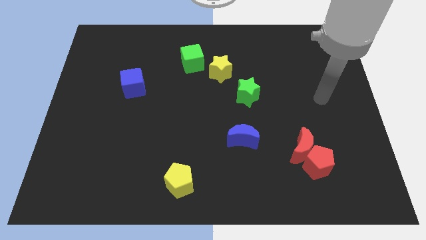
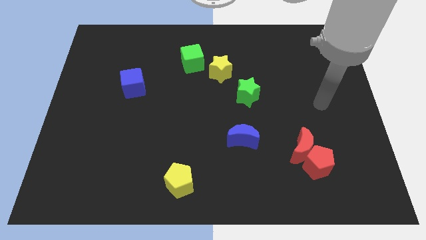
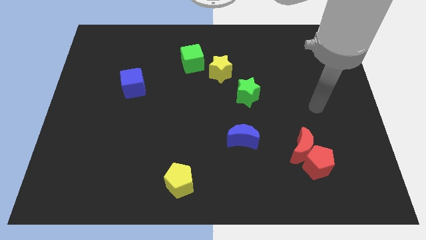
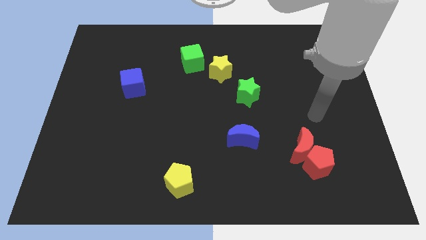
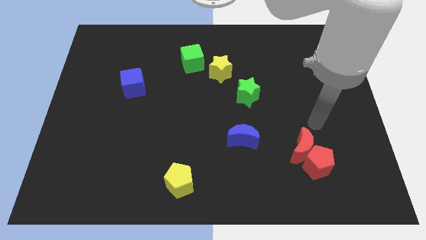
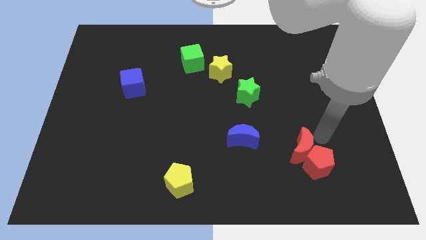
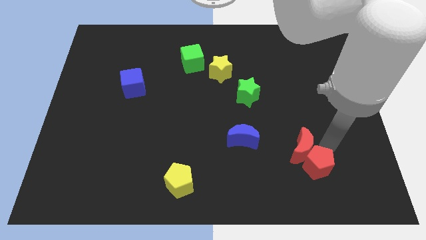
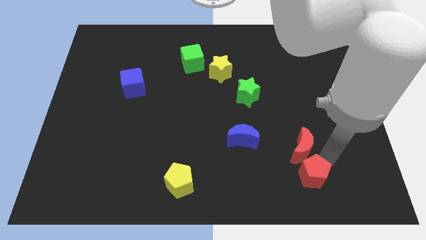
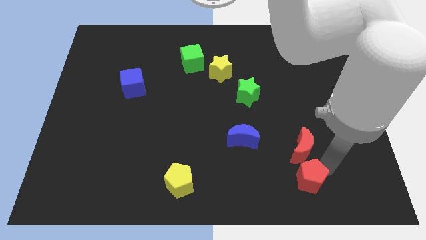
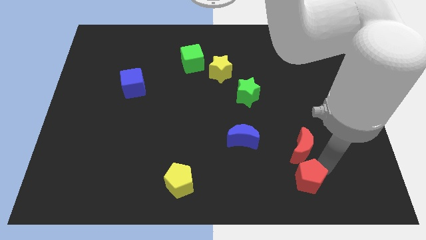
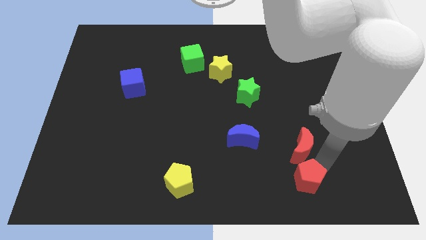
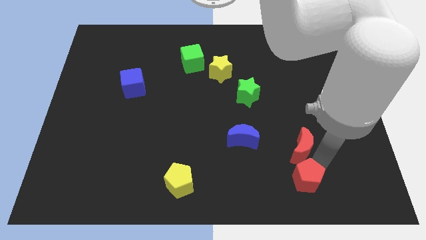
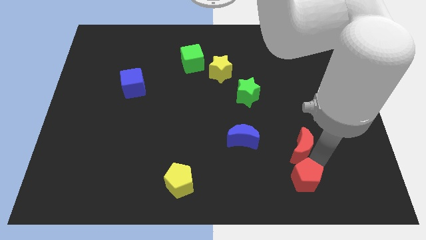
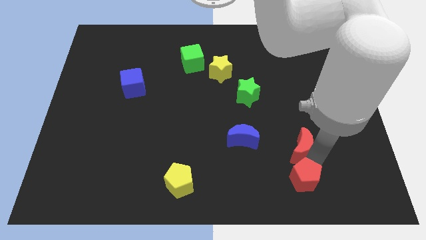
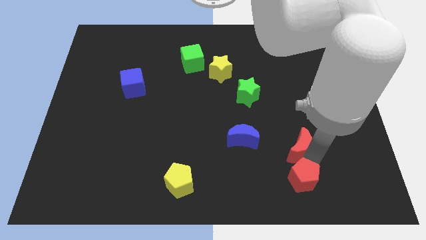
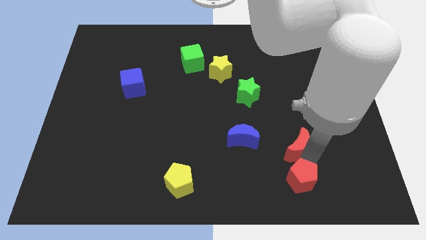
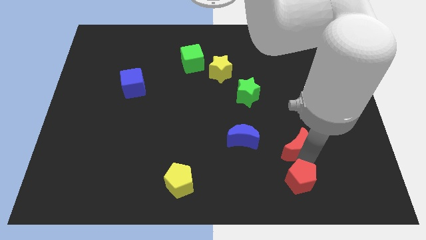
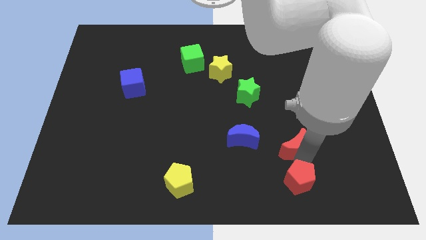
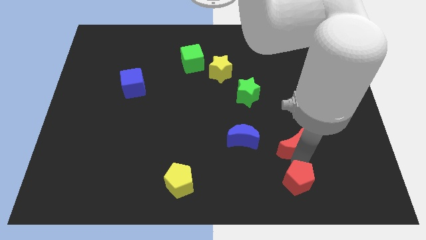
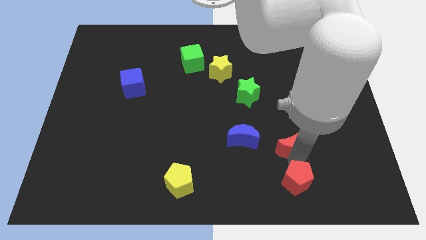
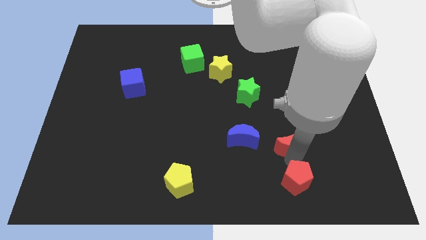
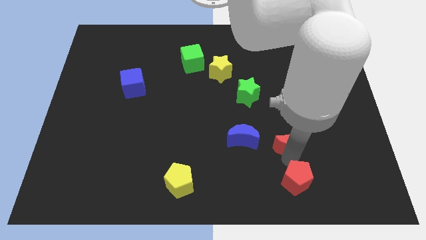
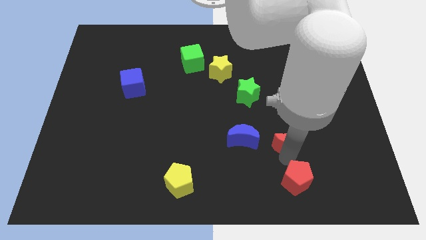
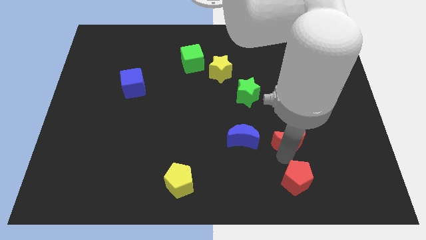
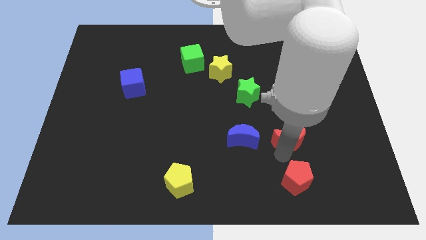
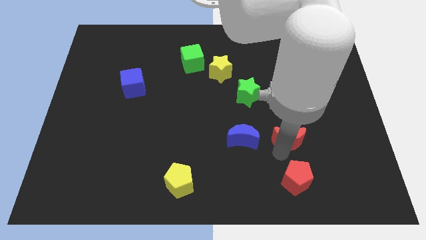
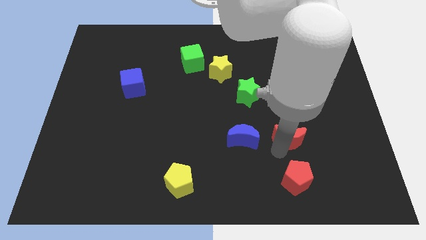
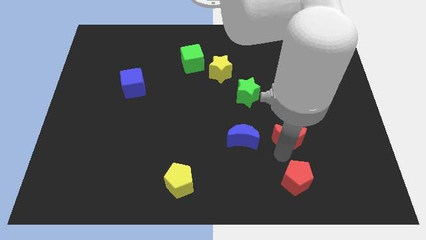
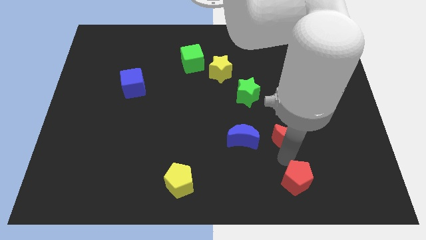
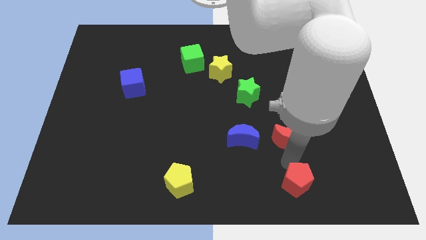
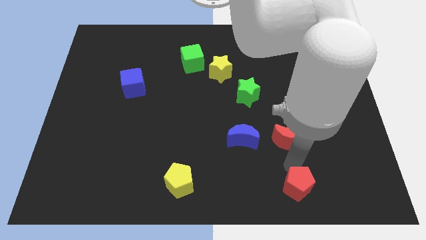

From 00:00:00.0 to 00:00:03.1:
separate the red moon from the red pentagon

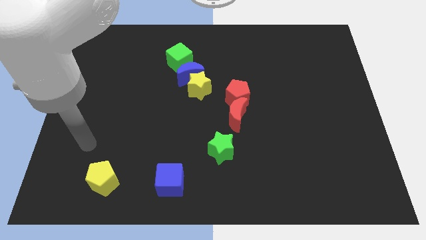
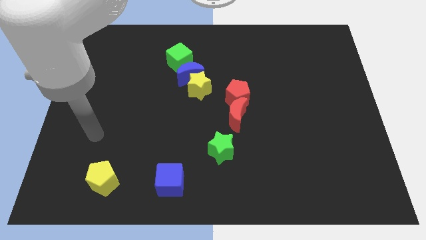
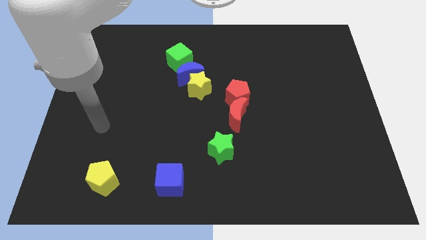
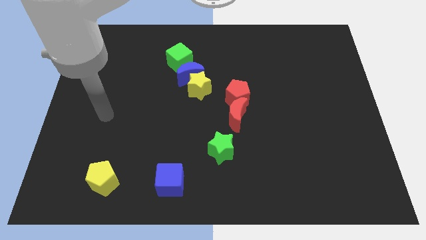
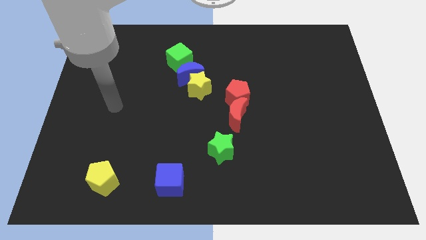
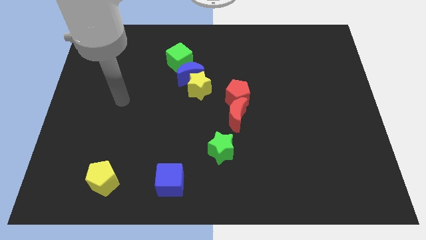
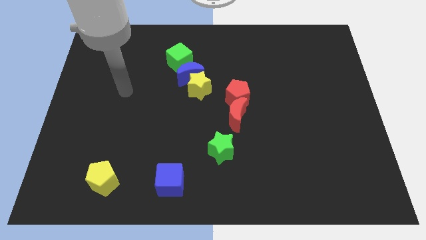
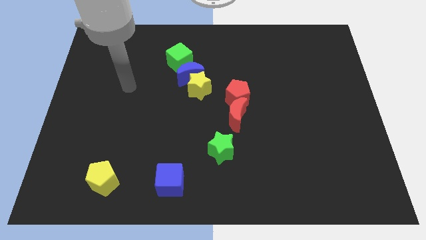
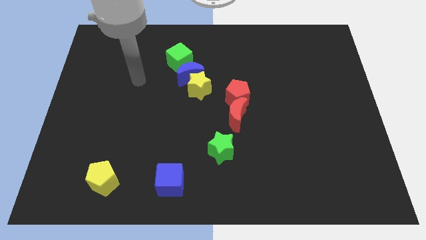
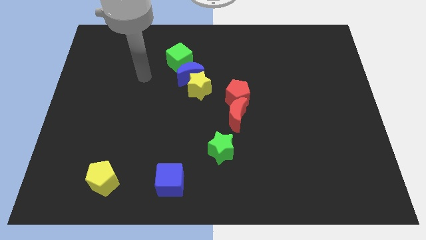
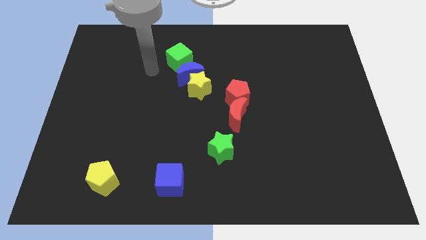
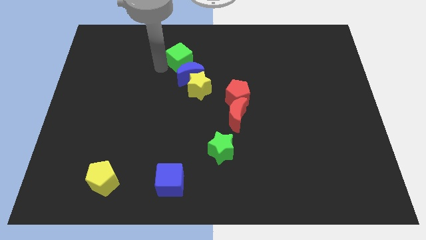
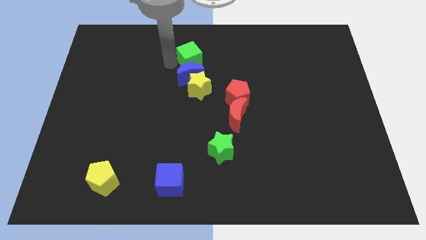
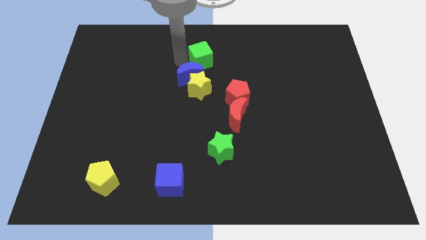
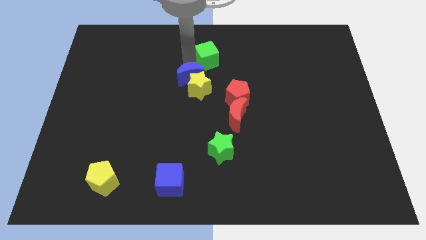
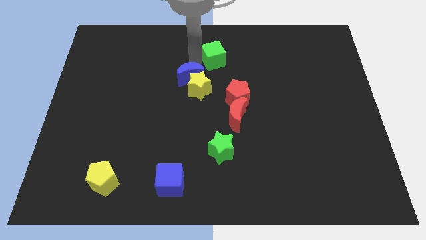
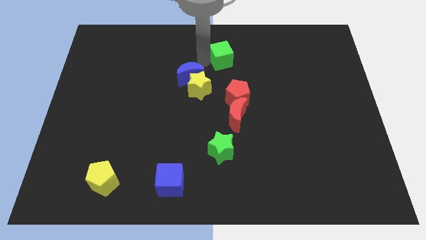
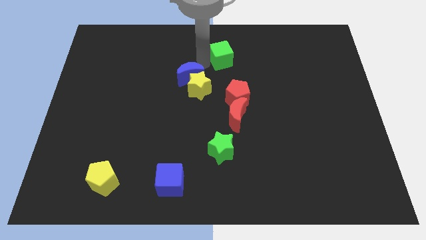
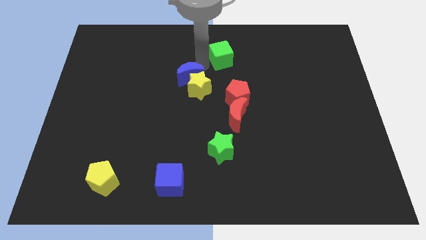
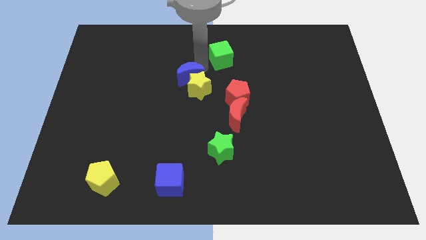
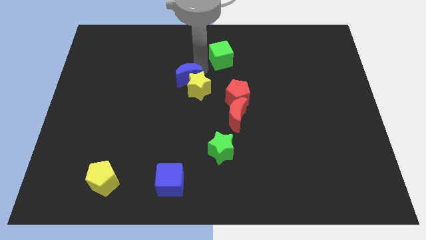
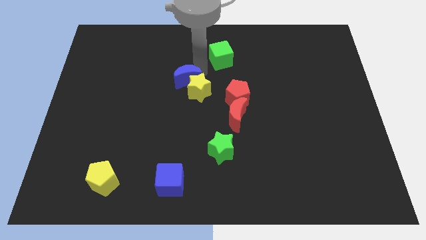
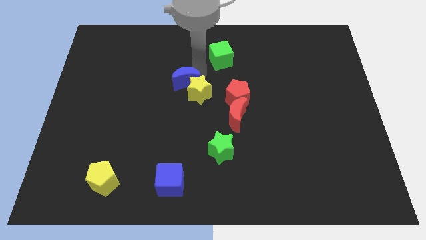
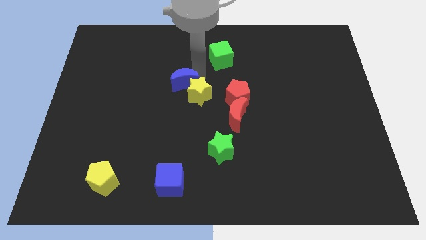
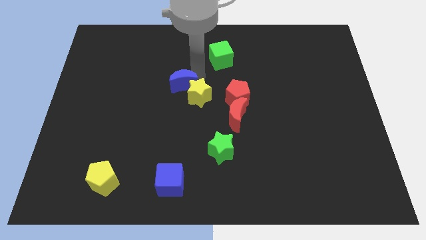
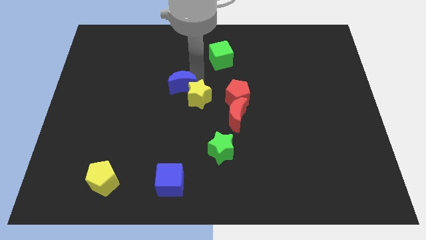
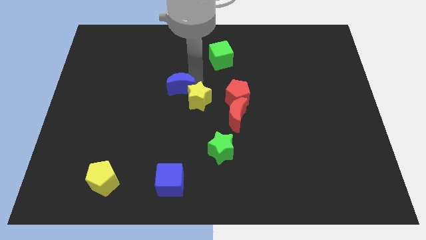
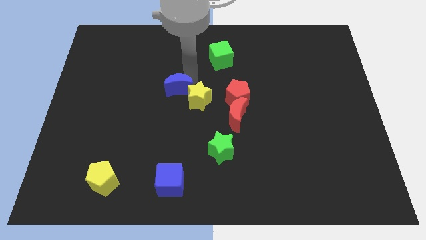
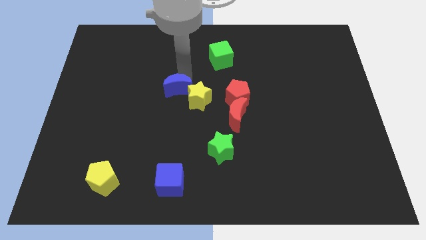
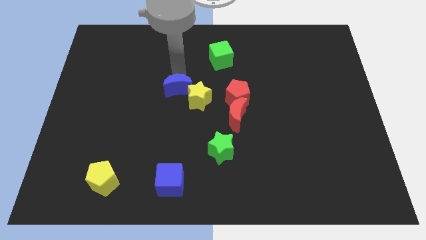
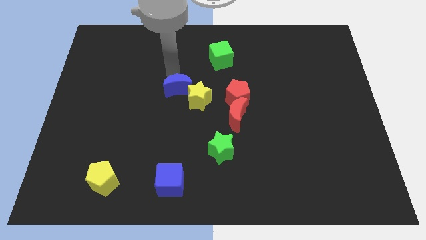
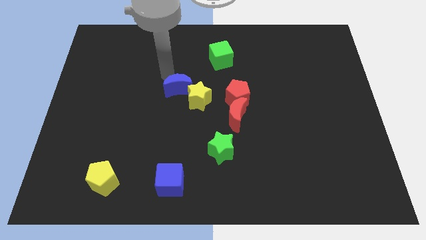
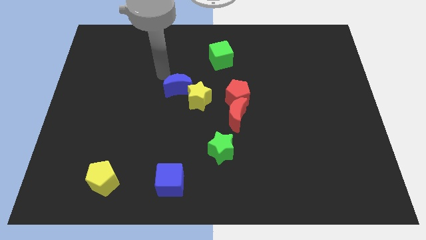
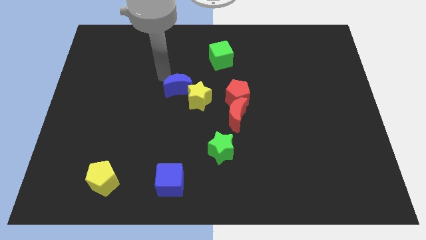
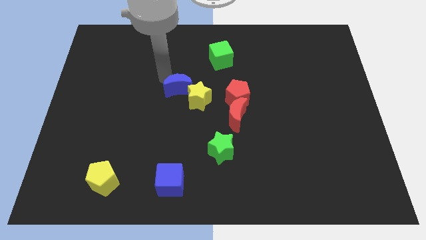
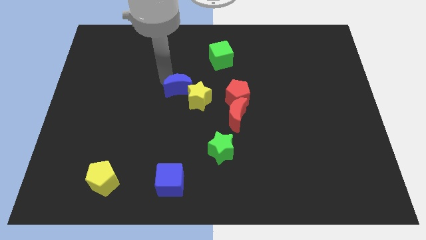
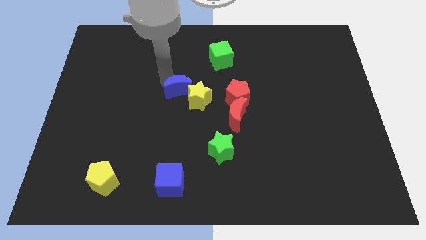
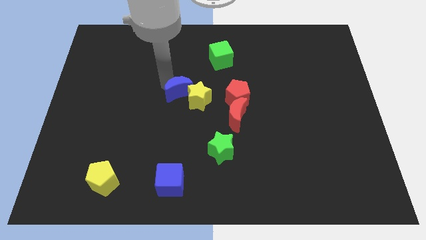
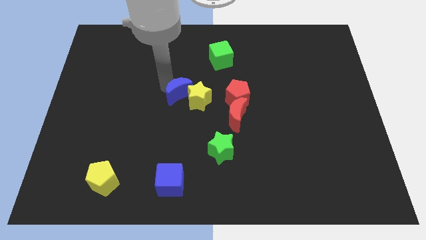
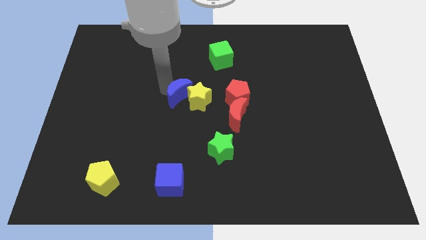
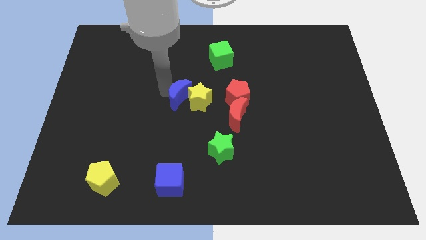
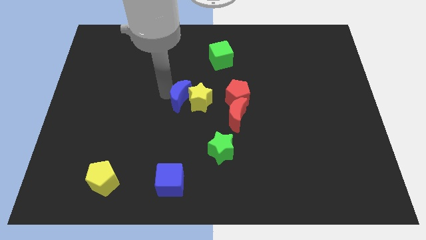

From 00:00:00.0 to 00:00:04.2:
separate the blue moon from the yellow star and green cube

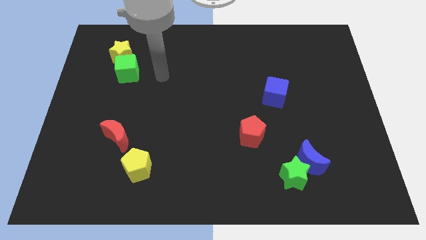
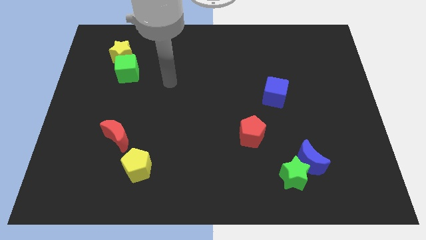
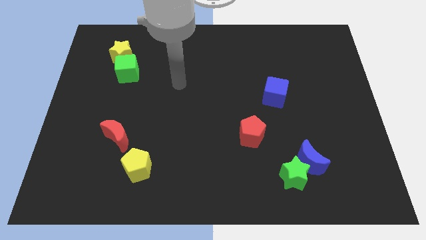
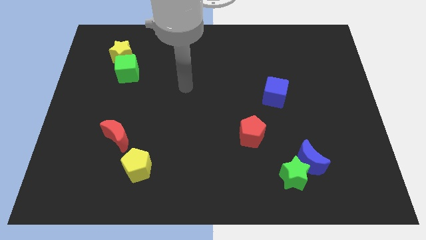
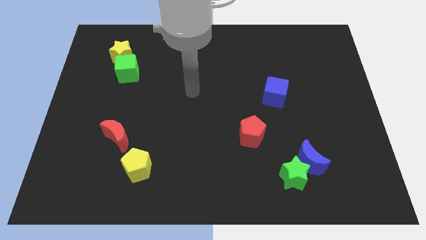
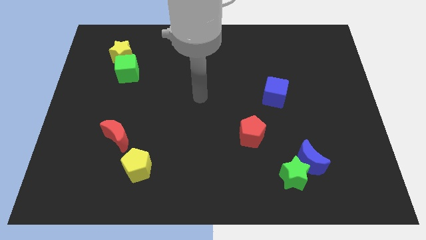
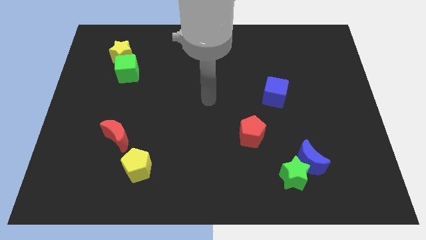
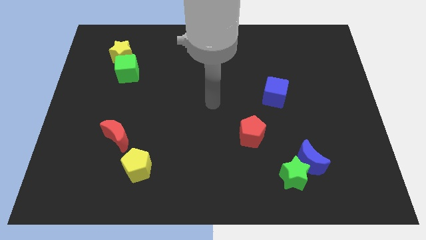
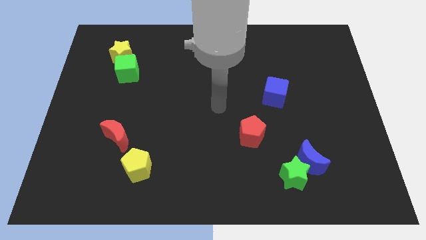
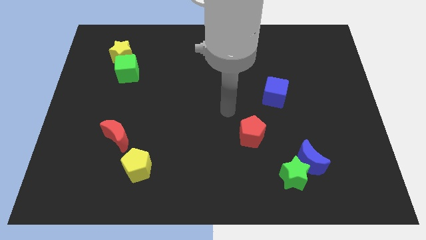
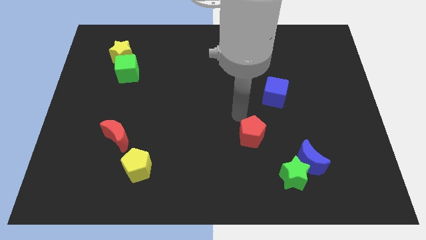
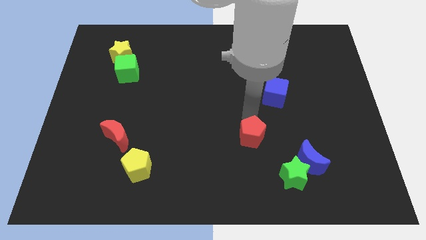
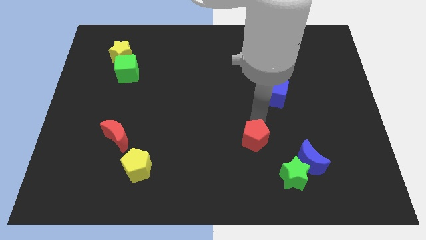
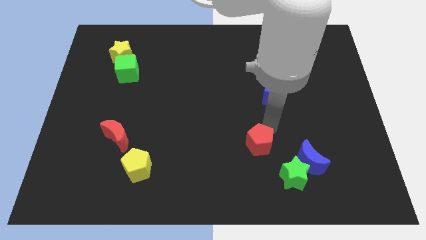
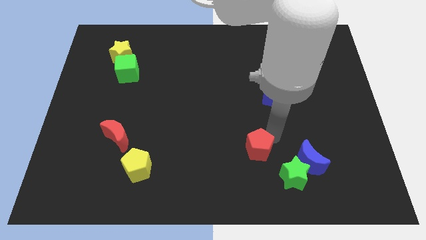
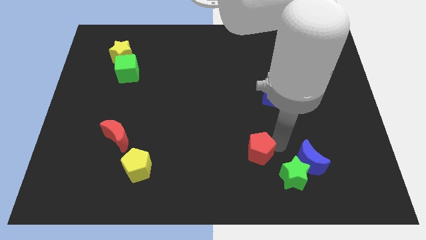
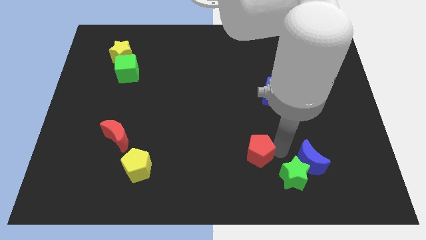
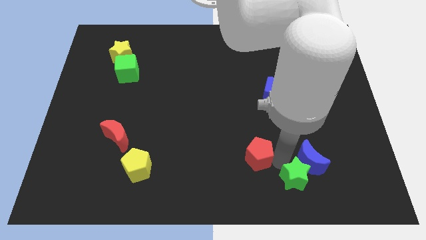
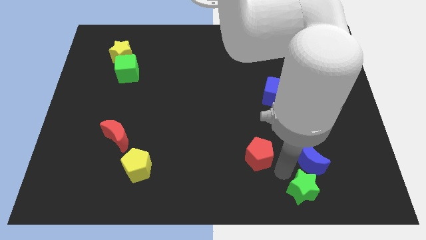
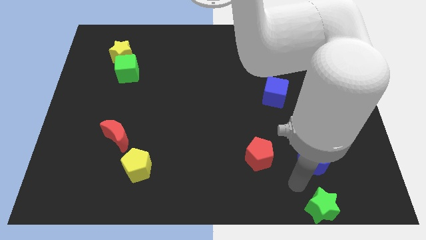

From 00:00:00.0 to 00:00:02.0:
move the blue moon away from the green star
